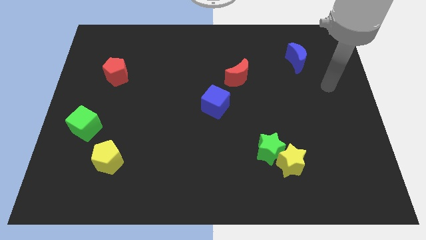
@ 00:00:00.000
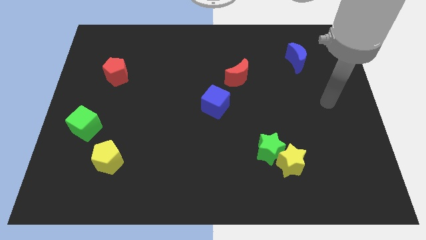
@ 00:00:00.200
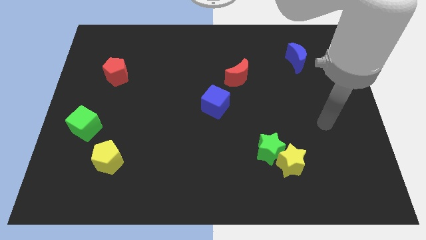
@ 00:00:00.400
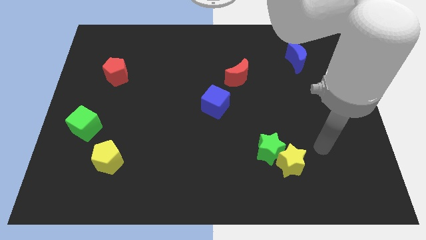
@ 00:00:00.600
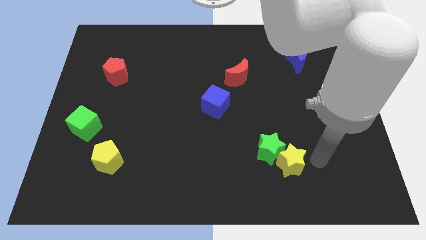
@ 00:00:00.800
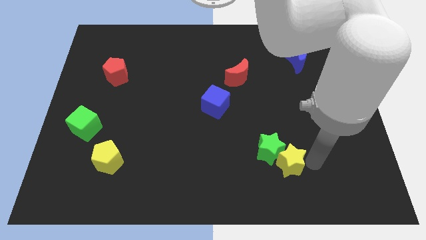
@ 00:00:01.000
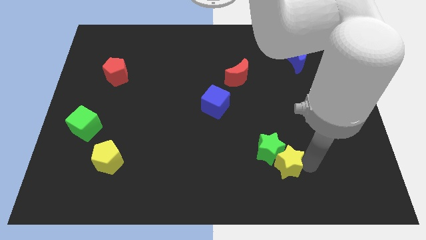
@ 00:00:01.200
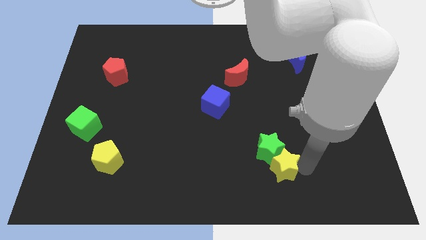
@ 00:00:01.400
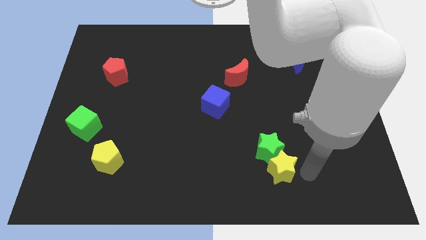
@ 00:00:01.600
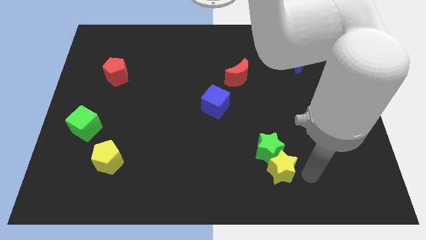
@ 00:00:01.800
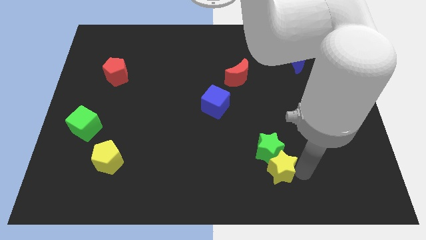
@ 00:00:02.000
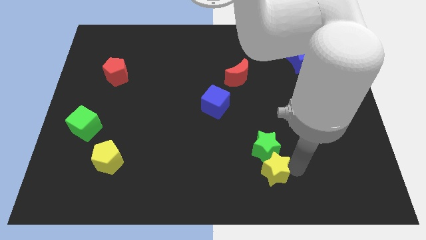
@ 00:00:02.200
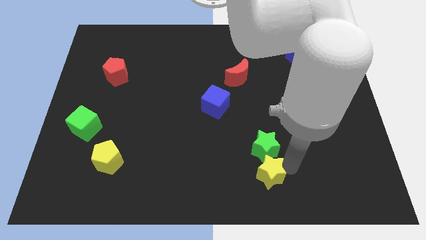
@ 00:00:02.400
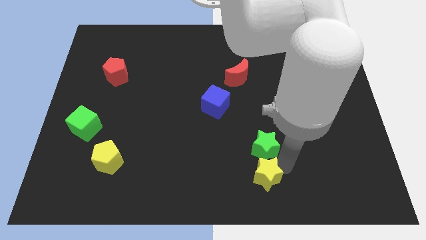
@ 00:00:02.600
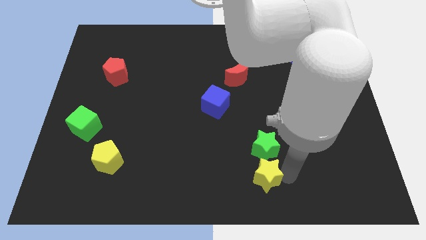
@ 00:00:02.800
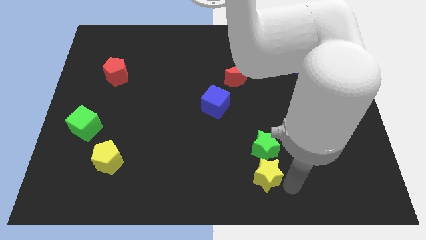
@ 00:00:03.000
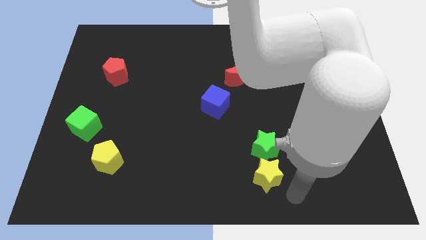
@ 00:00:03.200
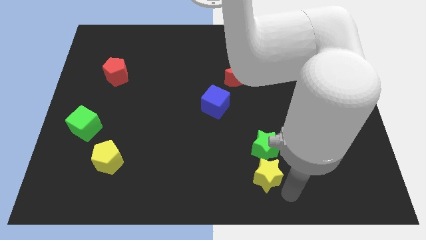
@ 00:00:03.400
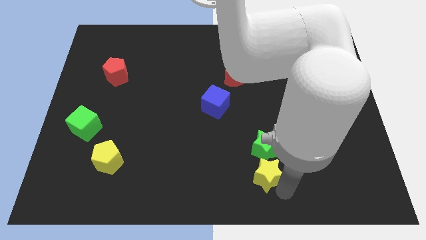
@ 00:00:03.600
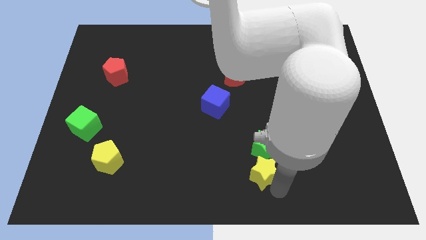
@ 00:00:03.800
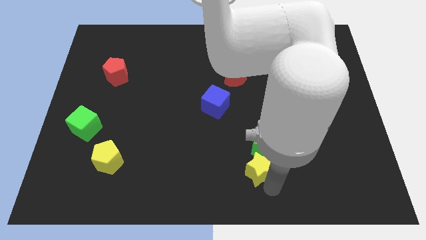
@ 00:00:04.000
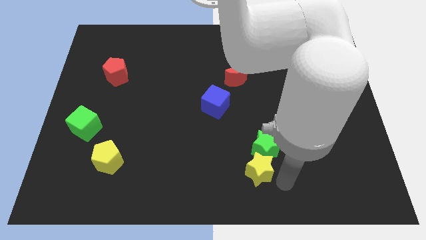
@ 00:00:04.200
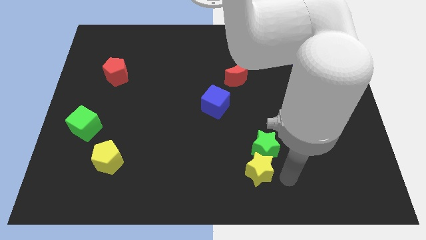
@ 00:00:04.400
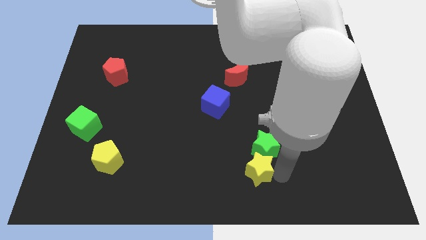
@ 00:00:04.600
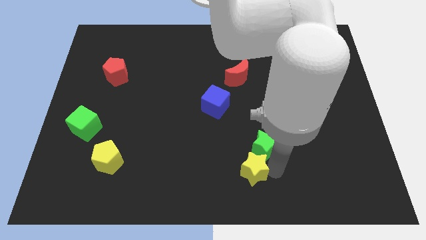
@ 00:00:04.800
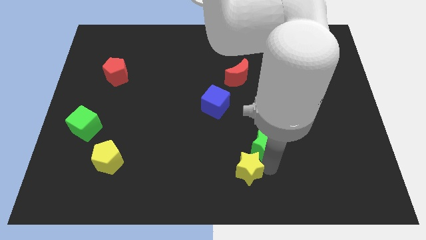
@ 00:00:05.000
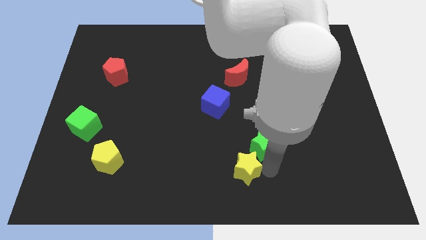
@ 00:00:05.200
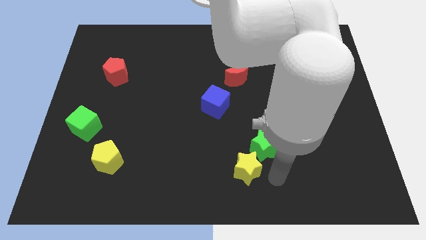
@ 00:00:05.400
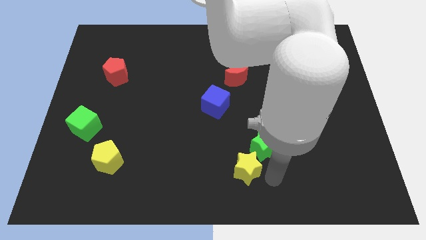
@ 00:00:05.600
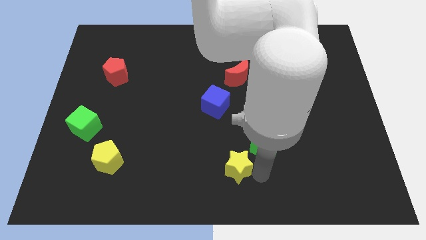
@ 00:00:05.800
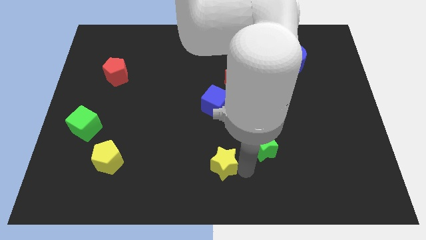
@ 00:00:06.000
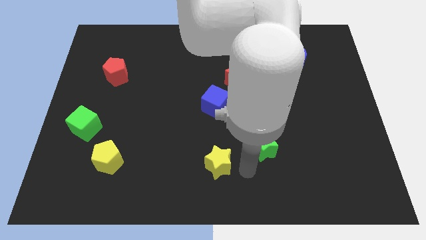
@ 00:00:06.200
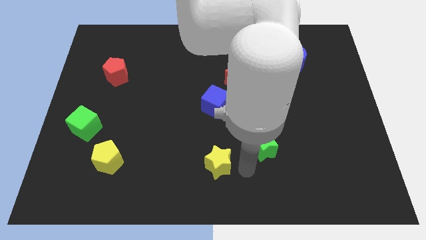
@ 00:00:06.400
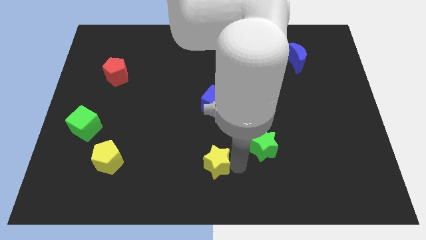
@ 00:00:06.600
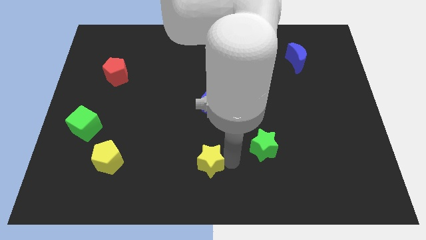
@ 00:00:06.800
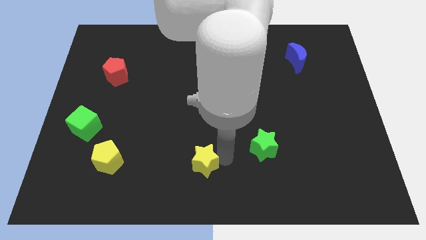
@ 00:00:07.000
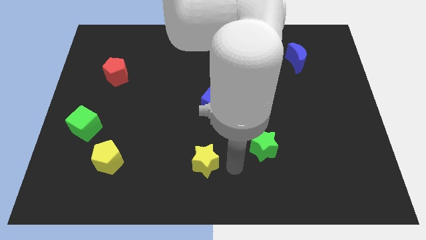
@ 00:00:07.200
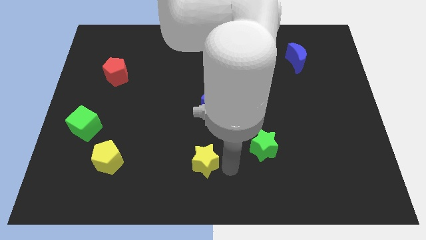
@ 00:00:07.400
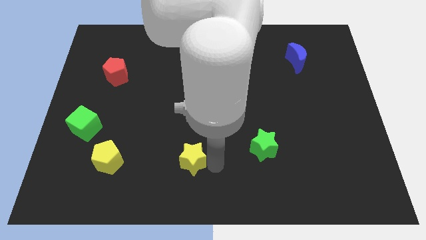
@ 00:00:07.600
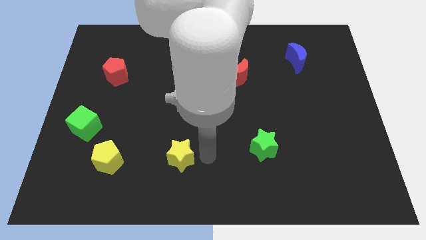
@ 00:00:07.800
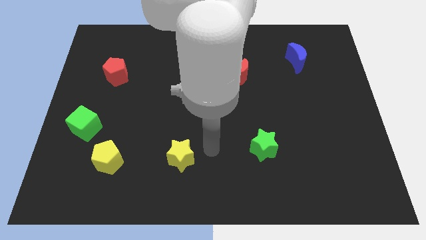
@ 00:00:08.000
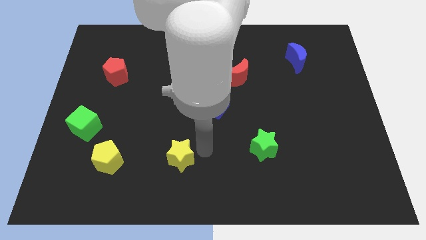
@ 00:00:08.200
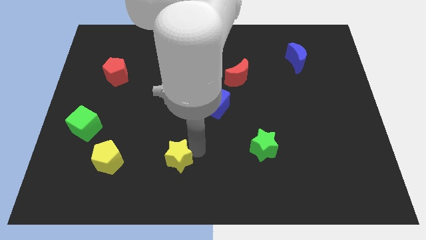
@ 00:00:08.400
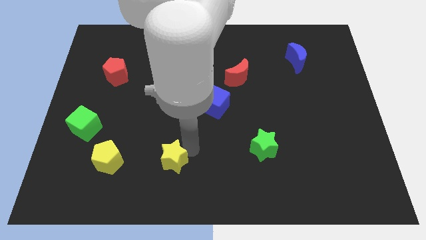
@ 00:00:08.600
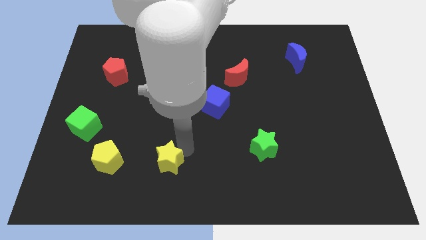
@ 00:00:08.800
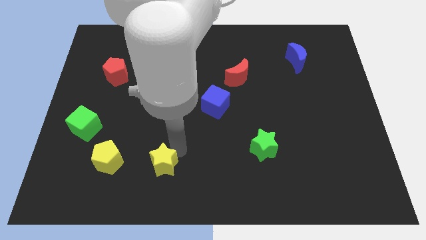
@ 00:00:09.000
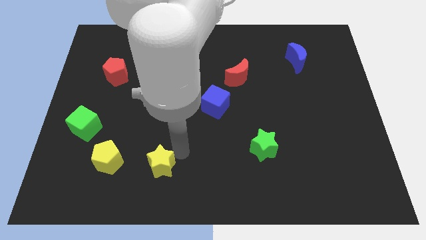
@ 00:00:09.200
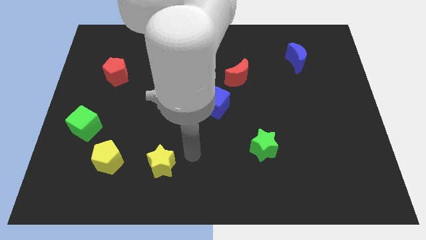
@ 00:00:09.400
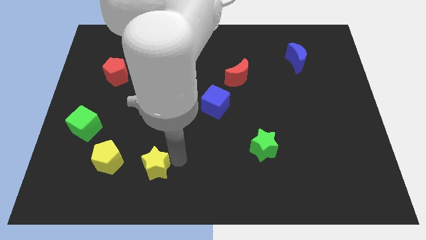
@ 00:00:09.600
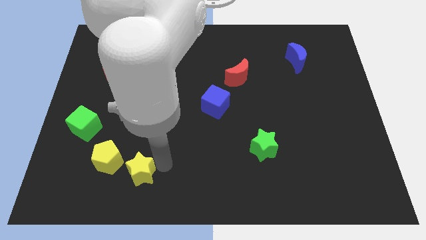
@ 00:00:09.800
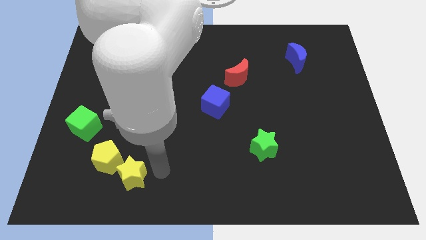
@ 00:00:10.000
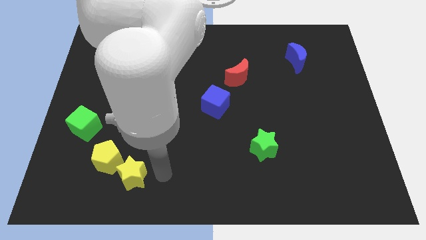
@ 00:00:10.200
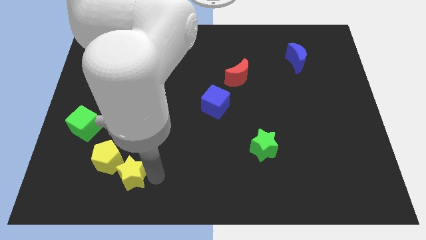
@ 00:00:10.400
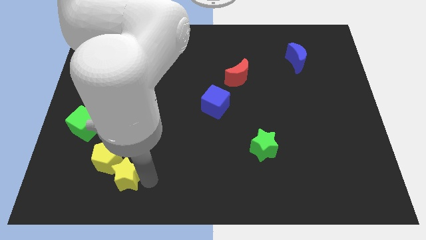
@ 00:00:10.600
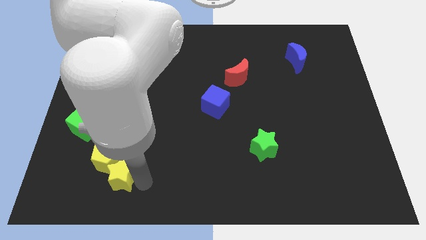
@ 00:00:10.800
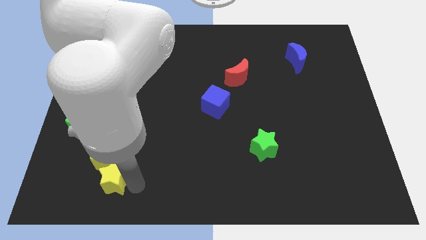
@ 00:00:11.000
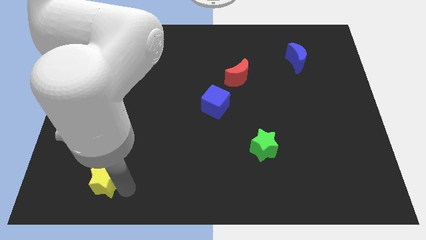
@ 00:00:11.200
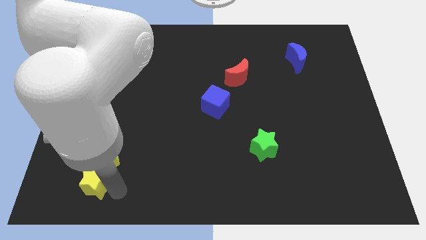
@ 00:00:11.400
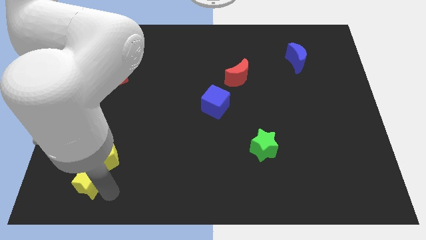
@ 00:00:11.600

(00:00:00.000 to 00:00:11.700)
move the yellow star to the bottom side of the green cube

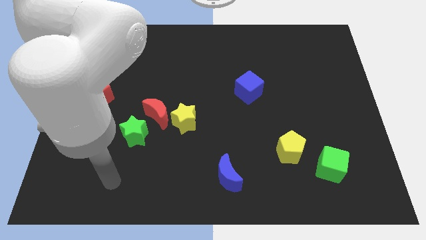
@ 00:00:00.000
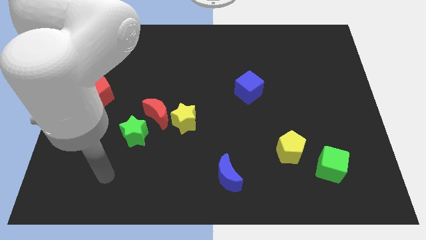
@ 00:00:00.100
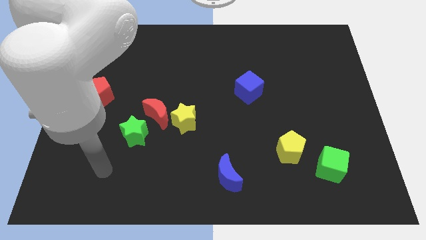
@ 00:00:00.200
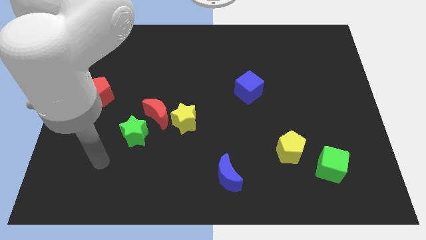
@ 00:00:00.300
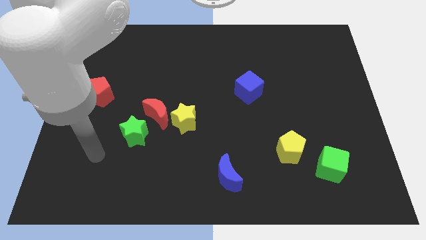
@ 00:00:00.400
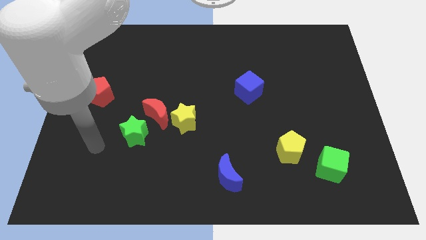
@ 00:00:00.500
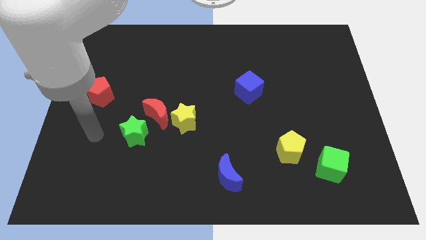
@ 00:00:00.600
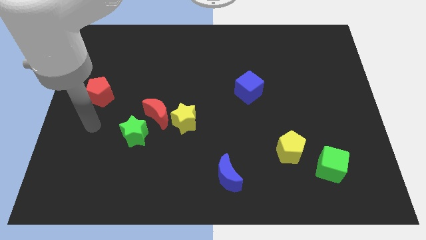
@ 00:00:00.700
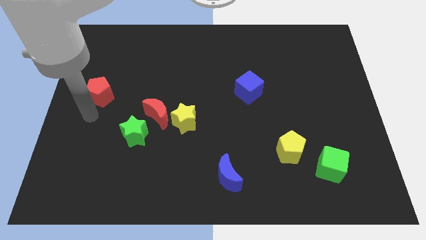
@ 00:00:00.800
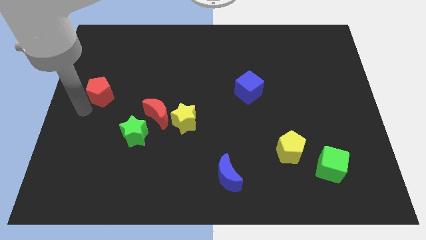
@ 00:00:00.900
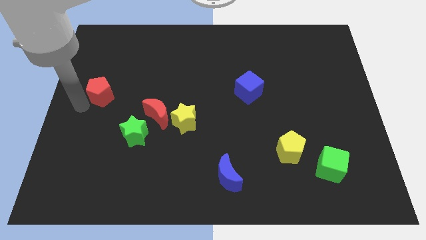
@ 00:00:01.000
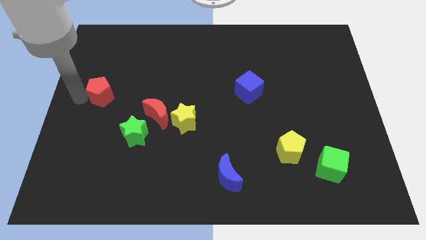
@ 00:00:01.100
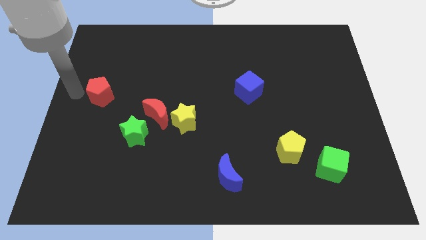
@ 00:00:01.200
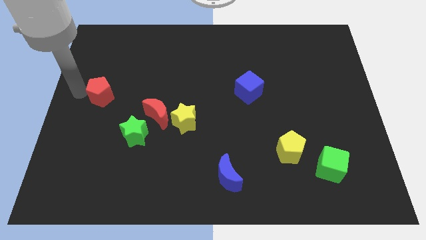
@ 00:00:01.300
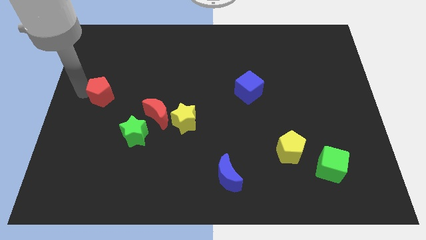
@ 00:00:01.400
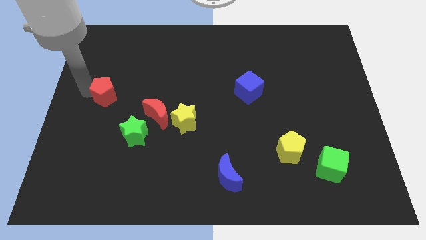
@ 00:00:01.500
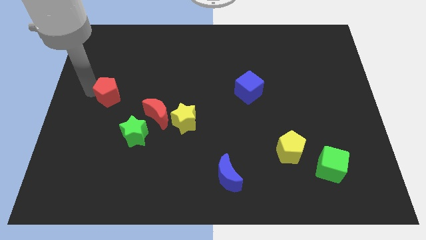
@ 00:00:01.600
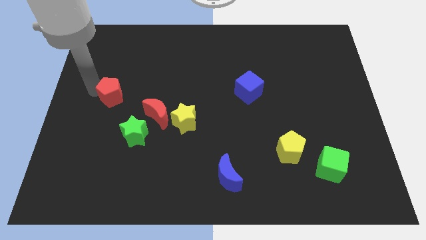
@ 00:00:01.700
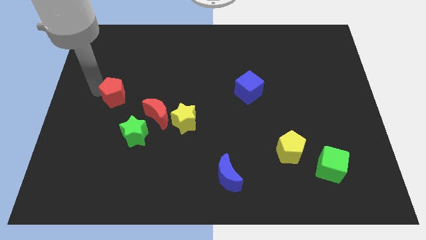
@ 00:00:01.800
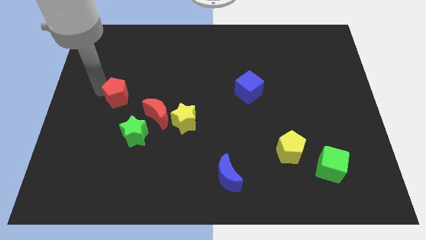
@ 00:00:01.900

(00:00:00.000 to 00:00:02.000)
slide the red pentagon to the top left of the red moon
